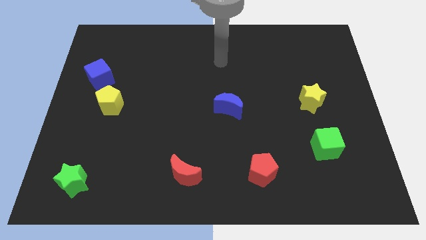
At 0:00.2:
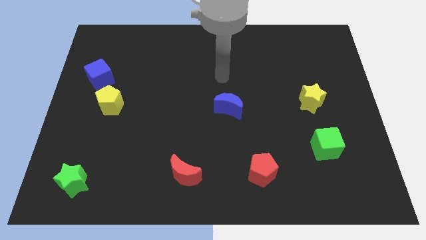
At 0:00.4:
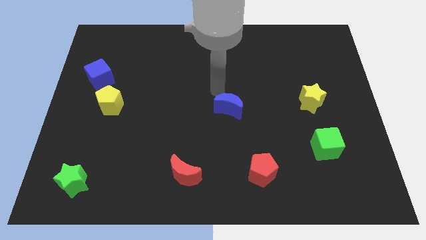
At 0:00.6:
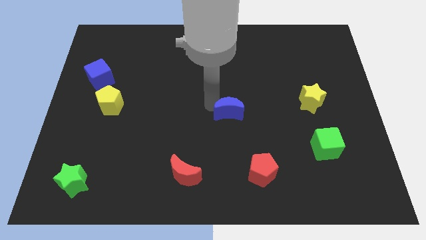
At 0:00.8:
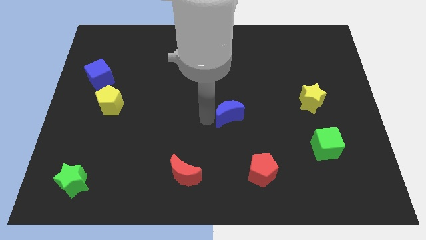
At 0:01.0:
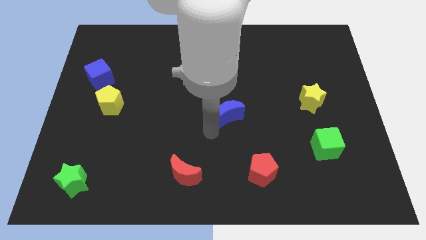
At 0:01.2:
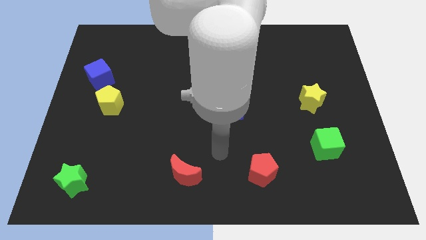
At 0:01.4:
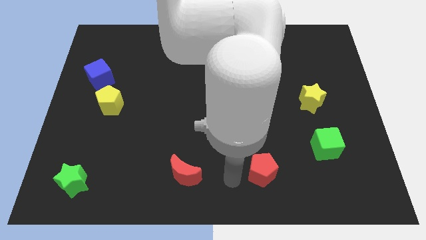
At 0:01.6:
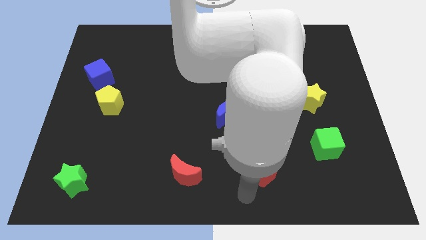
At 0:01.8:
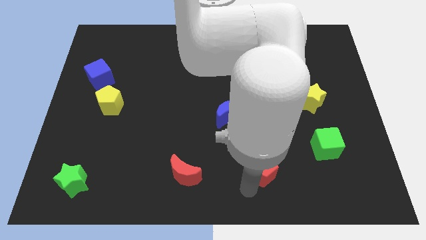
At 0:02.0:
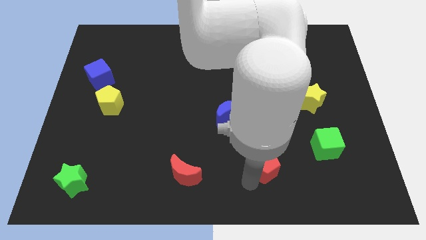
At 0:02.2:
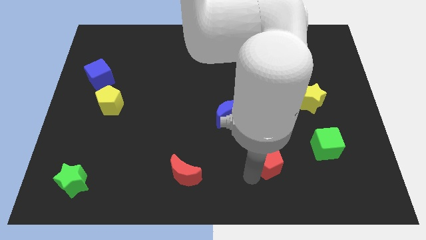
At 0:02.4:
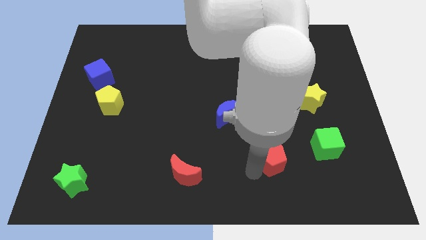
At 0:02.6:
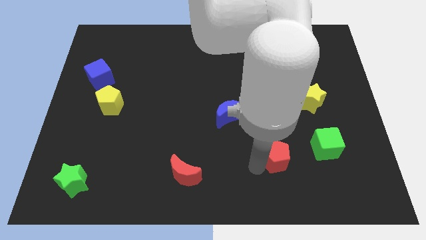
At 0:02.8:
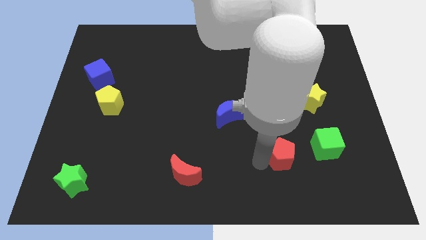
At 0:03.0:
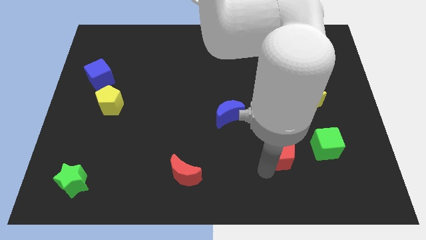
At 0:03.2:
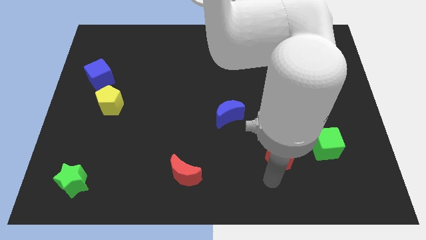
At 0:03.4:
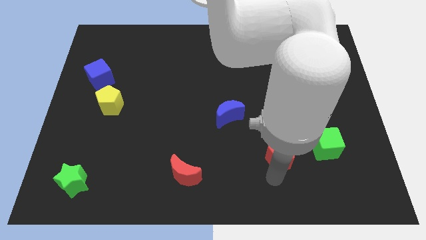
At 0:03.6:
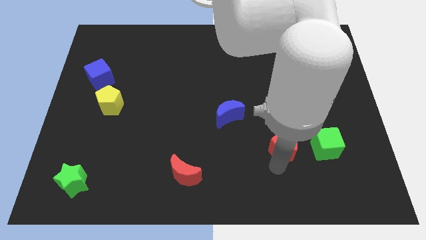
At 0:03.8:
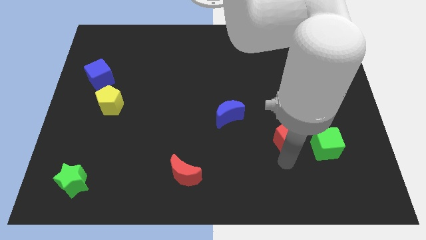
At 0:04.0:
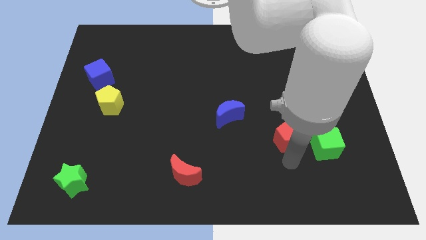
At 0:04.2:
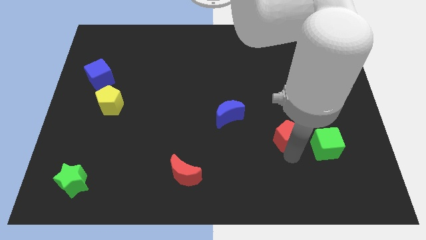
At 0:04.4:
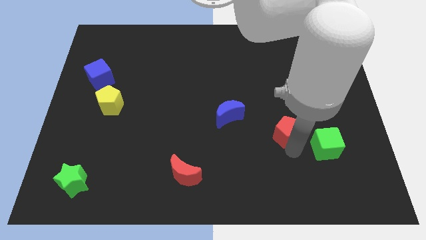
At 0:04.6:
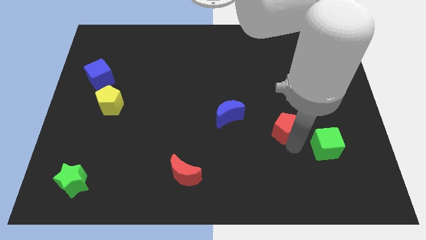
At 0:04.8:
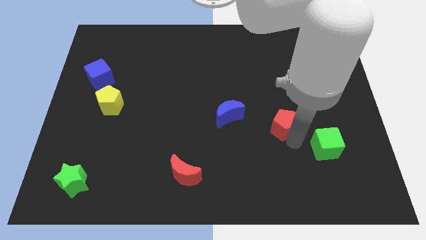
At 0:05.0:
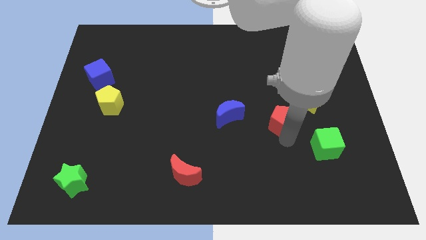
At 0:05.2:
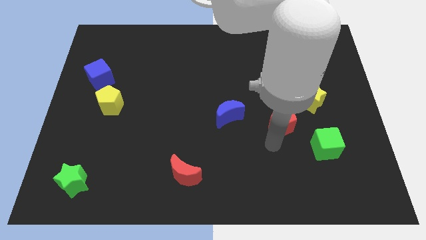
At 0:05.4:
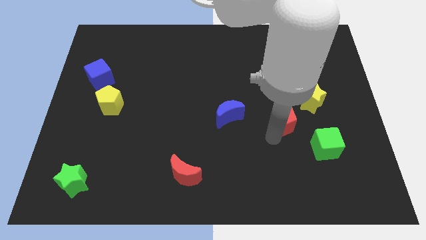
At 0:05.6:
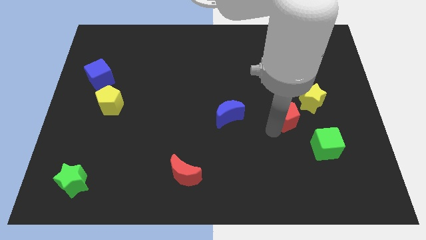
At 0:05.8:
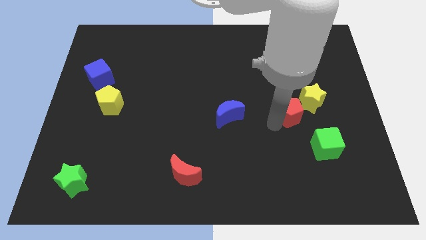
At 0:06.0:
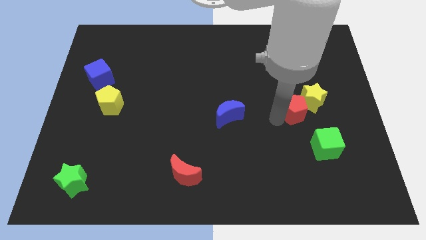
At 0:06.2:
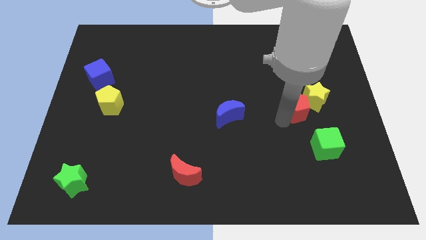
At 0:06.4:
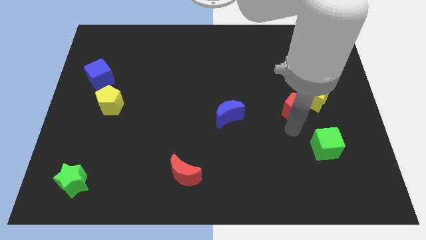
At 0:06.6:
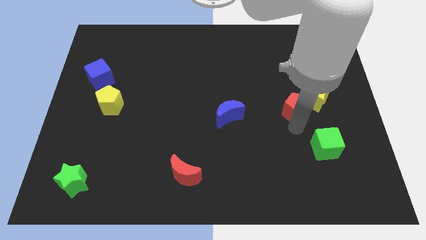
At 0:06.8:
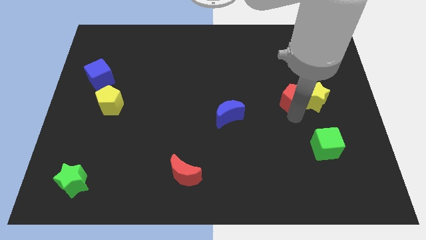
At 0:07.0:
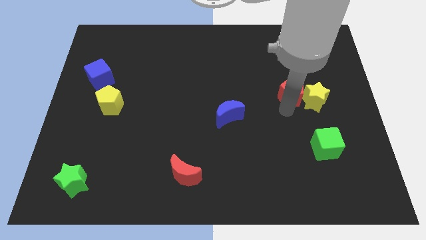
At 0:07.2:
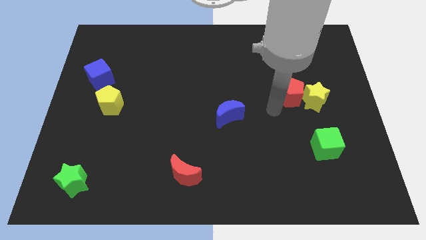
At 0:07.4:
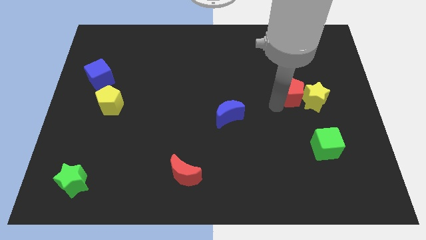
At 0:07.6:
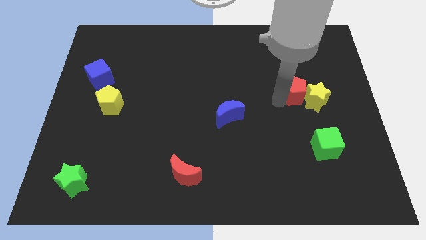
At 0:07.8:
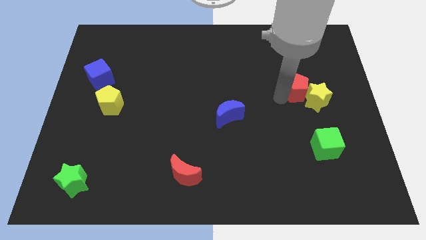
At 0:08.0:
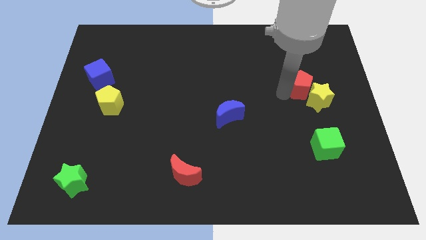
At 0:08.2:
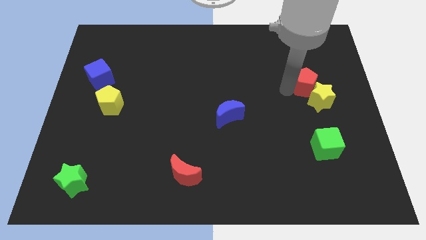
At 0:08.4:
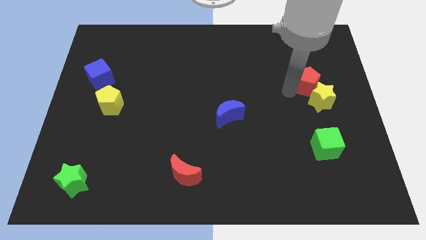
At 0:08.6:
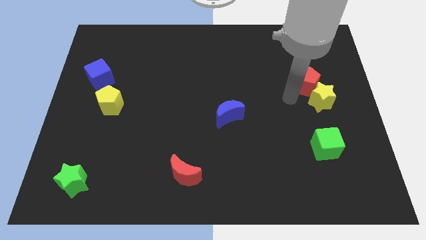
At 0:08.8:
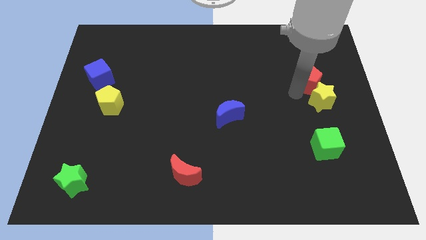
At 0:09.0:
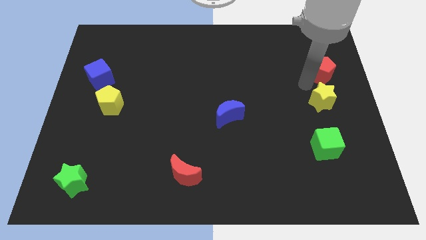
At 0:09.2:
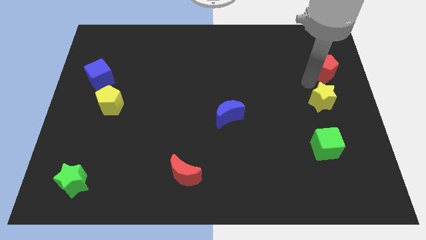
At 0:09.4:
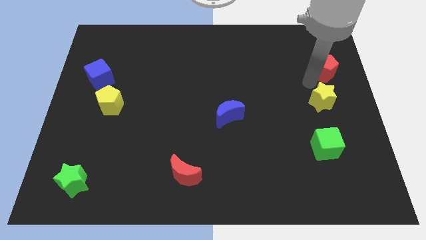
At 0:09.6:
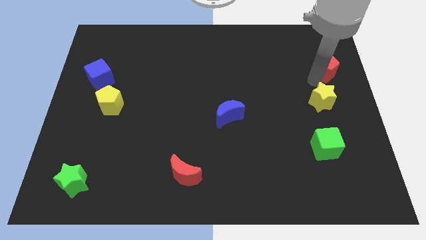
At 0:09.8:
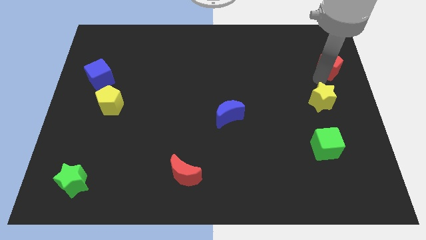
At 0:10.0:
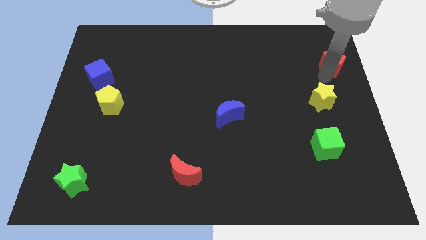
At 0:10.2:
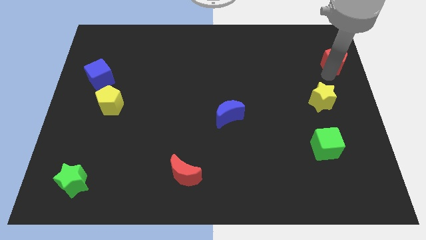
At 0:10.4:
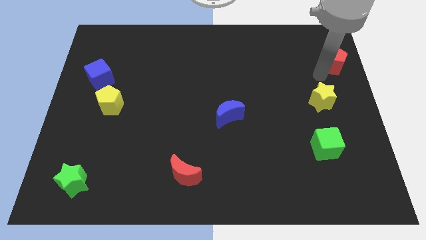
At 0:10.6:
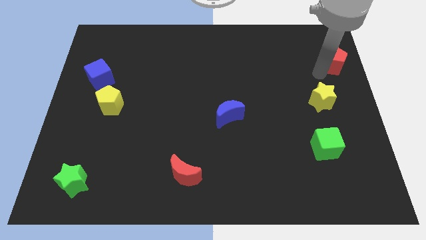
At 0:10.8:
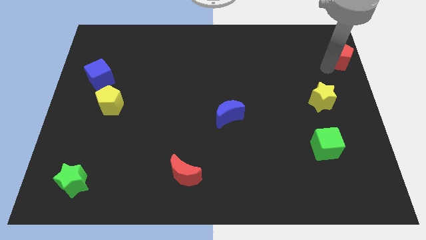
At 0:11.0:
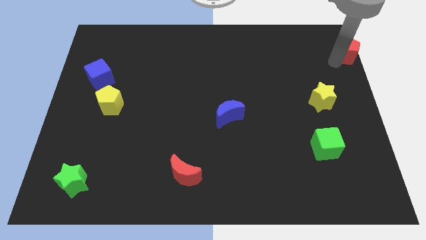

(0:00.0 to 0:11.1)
put the red pentagon to the top right

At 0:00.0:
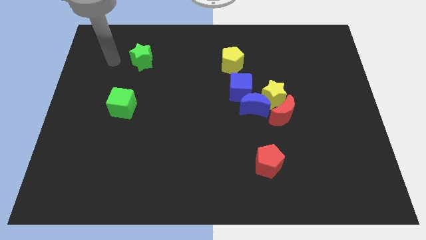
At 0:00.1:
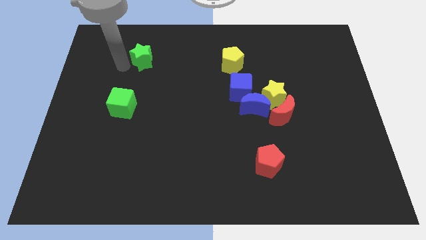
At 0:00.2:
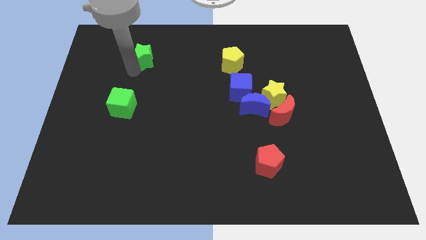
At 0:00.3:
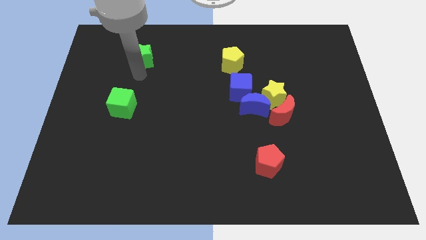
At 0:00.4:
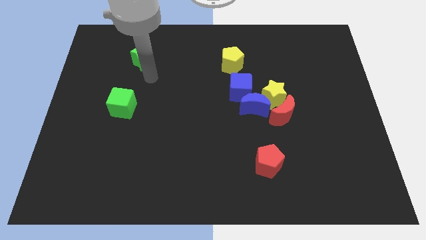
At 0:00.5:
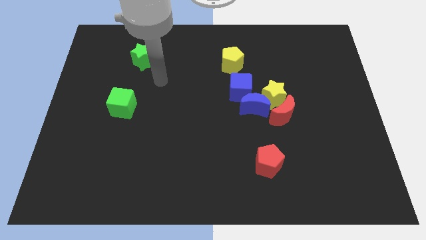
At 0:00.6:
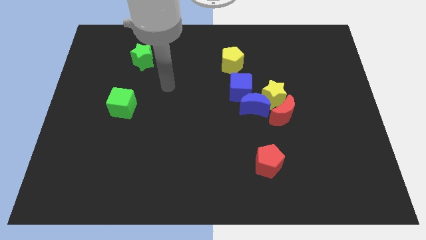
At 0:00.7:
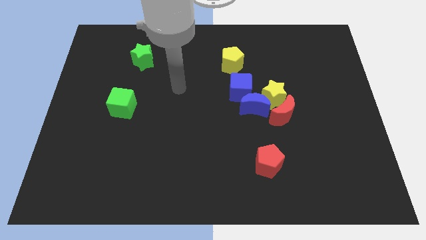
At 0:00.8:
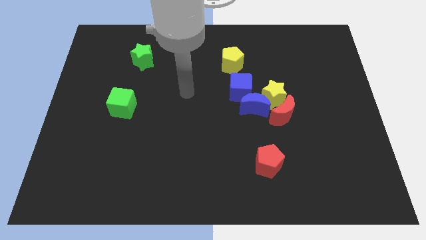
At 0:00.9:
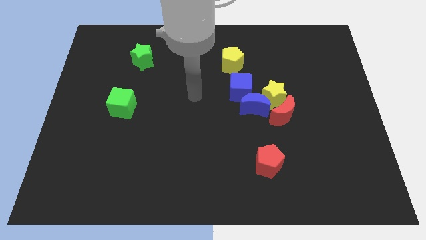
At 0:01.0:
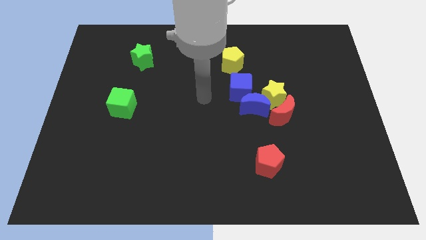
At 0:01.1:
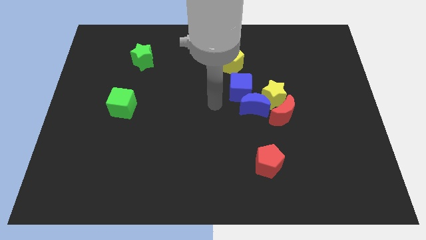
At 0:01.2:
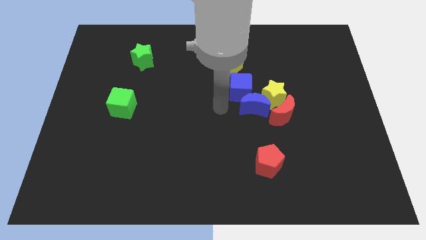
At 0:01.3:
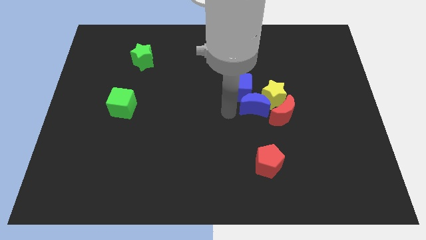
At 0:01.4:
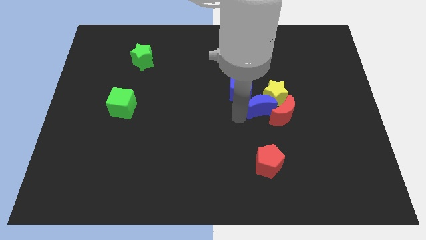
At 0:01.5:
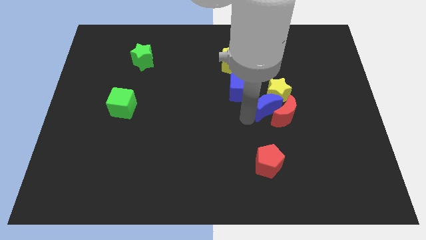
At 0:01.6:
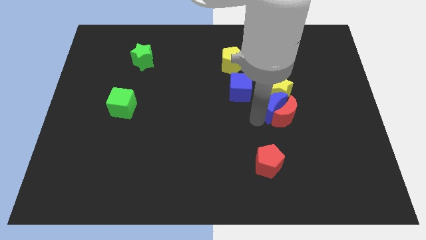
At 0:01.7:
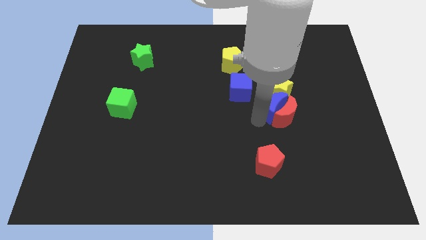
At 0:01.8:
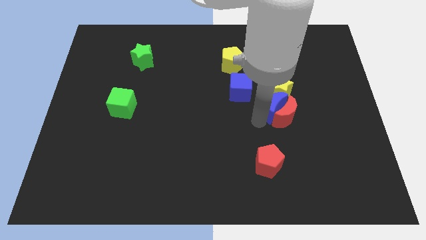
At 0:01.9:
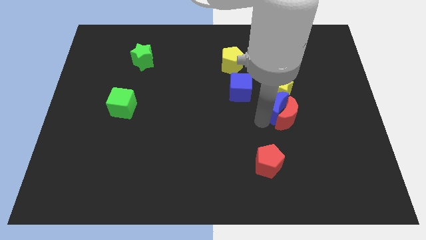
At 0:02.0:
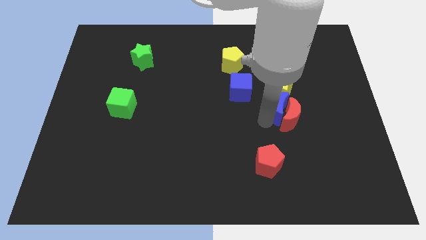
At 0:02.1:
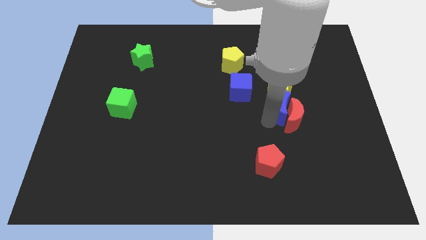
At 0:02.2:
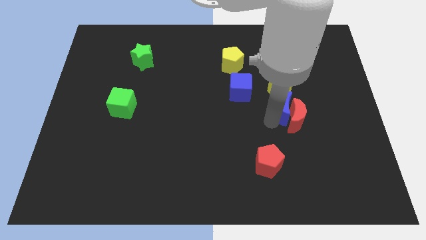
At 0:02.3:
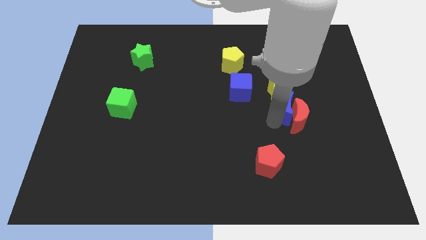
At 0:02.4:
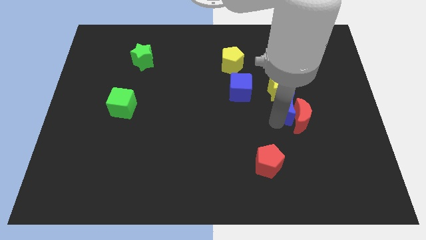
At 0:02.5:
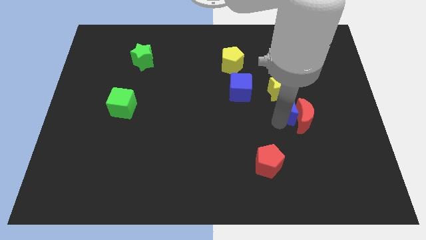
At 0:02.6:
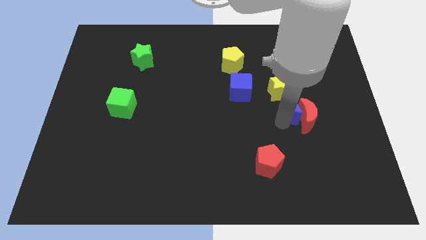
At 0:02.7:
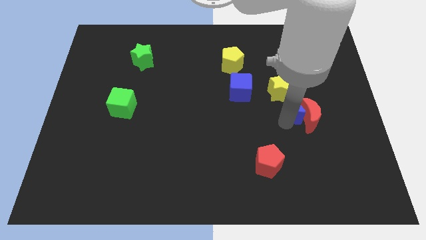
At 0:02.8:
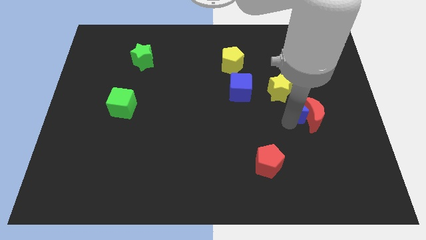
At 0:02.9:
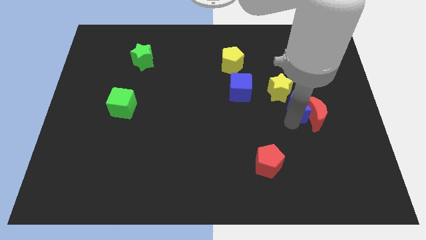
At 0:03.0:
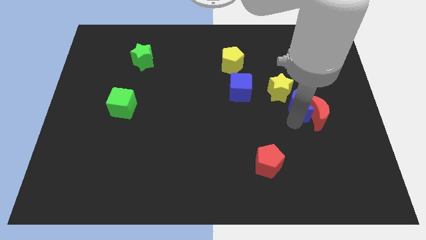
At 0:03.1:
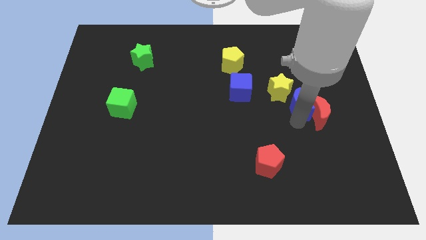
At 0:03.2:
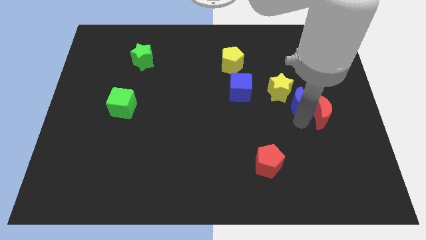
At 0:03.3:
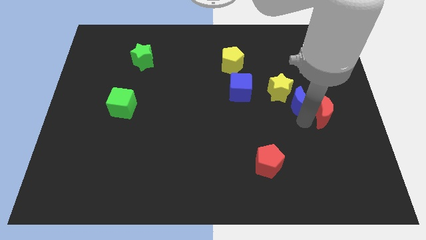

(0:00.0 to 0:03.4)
slide the red moon to the right side of the board
